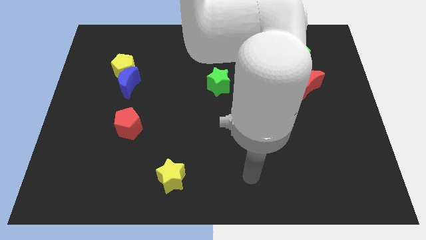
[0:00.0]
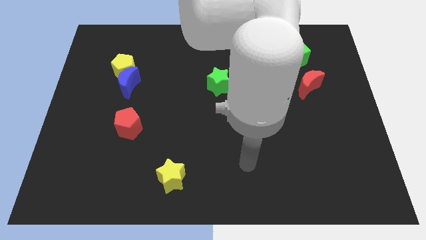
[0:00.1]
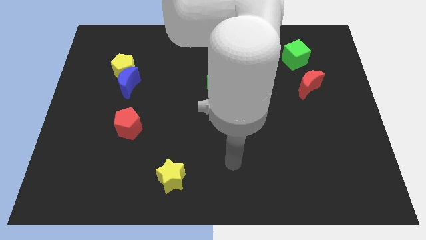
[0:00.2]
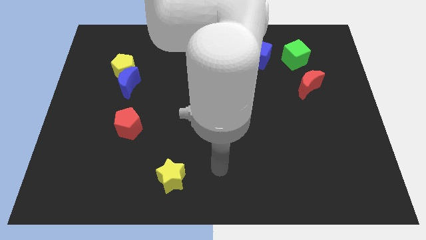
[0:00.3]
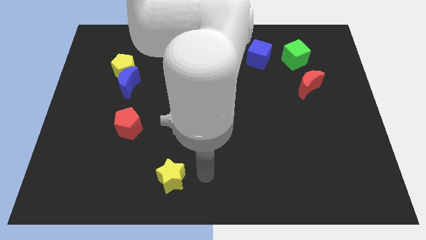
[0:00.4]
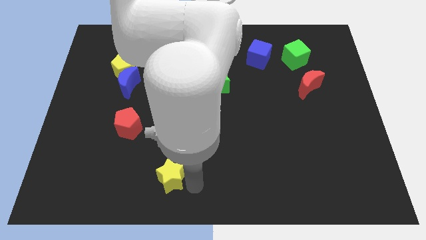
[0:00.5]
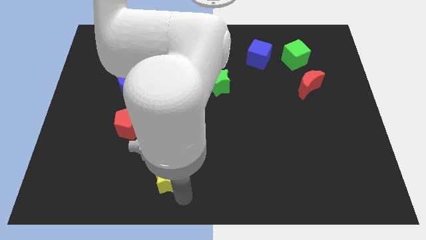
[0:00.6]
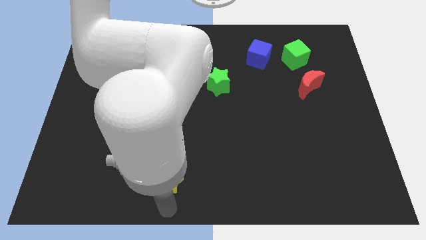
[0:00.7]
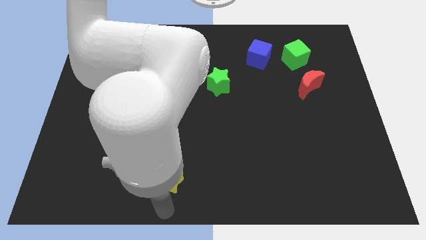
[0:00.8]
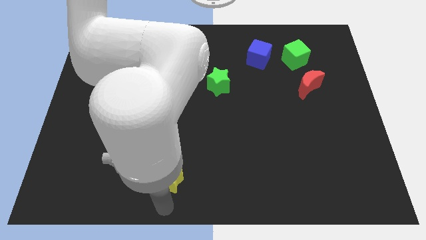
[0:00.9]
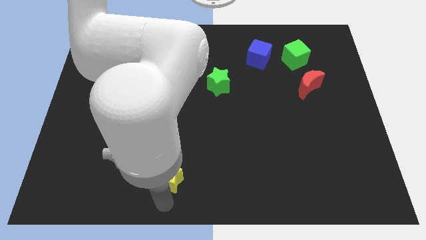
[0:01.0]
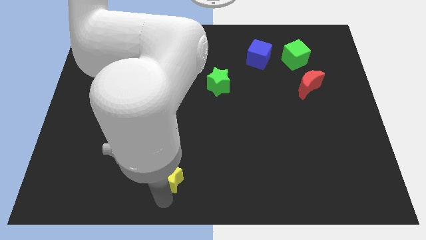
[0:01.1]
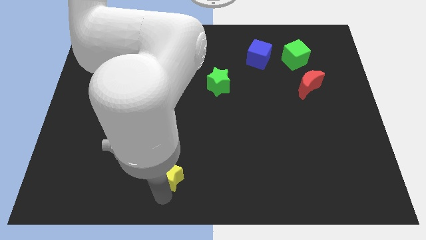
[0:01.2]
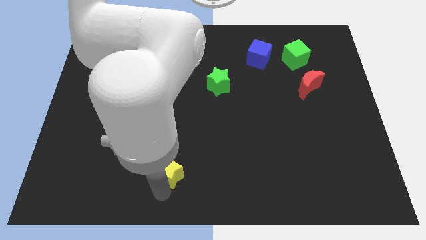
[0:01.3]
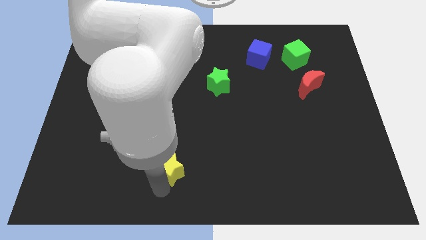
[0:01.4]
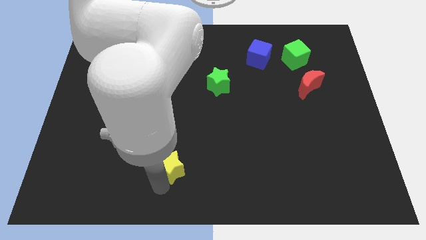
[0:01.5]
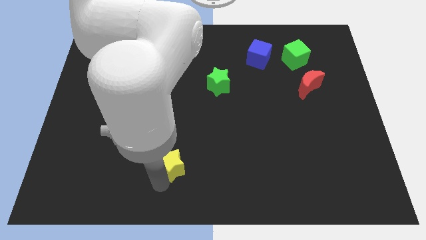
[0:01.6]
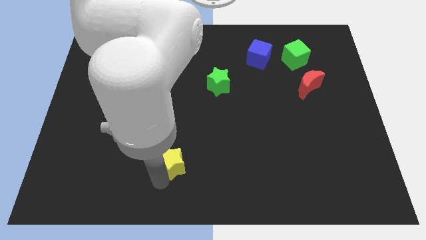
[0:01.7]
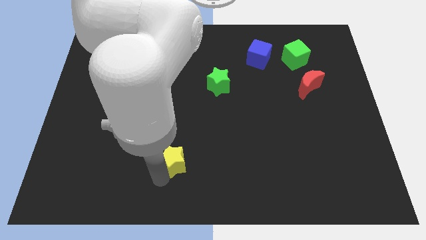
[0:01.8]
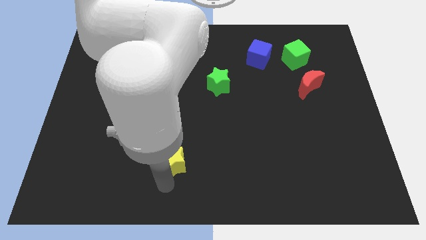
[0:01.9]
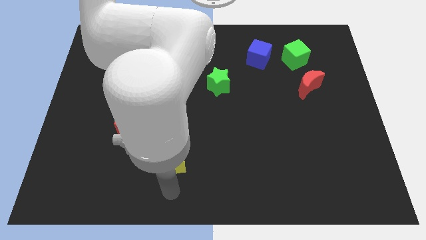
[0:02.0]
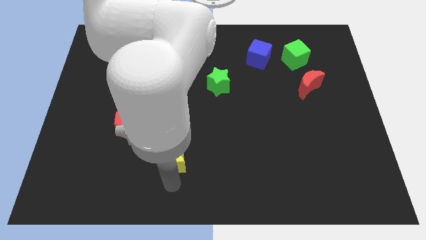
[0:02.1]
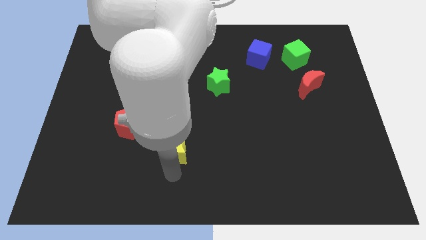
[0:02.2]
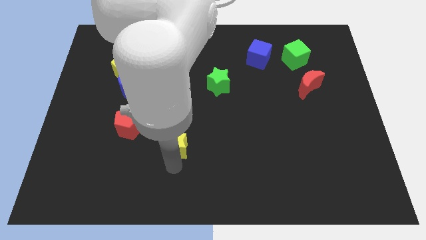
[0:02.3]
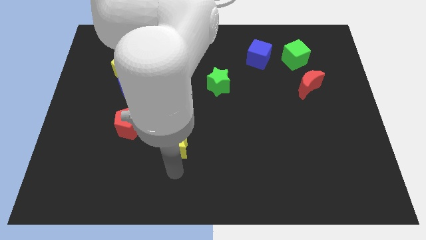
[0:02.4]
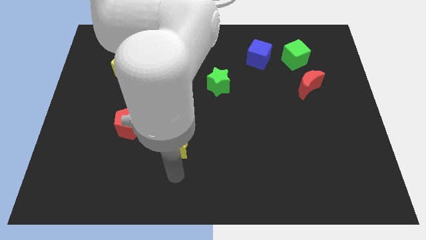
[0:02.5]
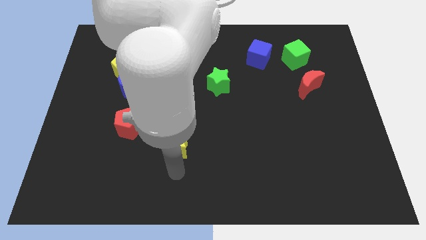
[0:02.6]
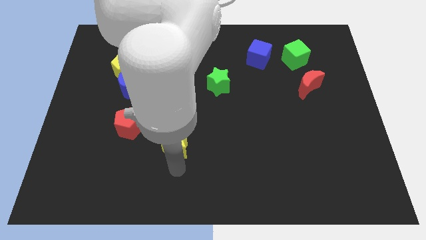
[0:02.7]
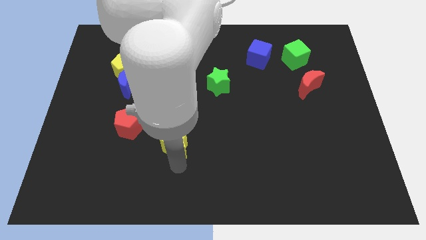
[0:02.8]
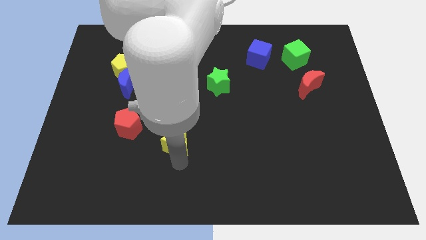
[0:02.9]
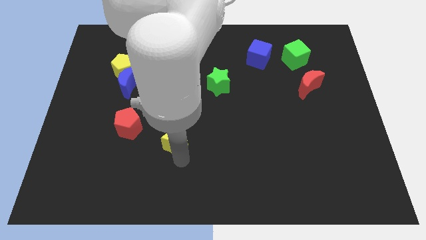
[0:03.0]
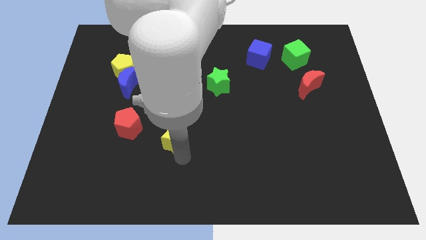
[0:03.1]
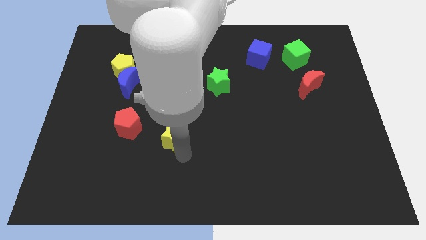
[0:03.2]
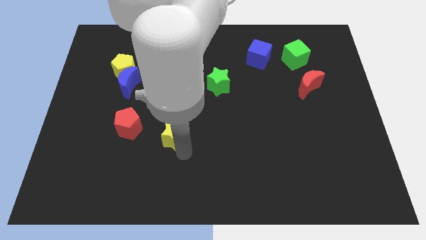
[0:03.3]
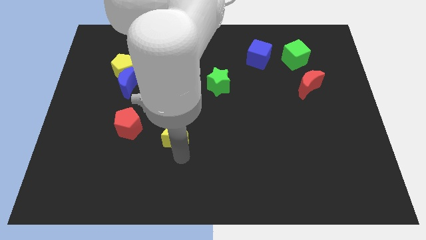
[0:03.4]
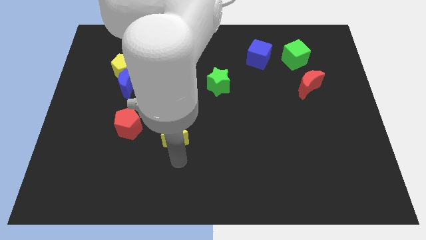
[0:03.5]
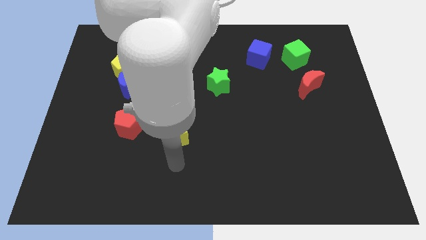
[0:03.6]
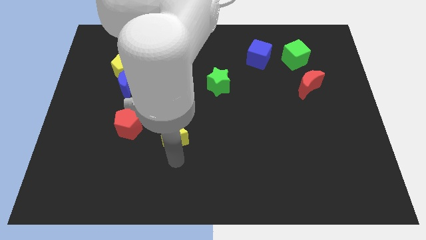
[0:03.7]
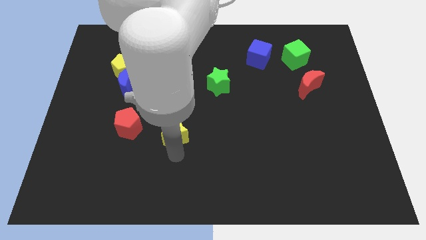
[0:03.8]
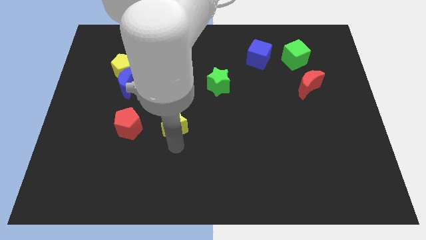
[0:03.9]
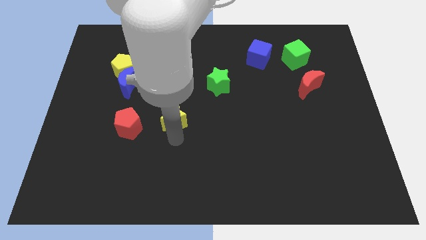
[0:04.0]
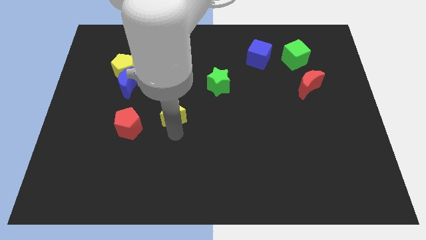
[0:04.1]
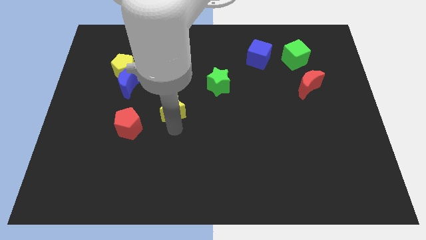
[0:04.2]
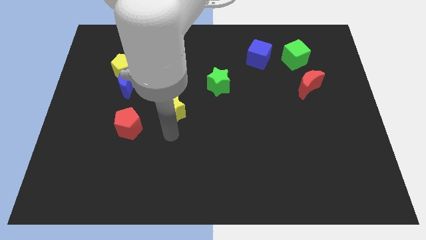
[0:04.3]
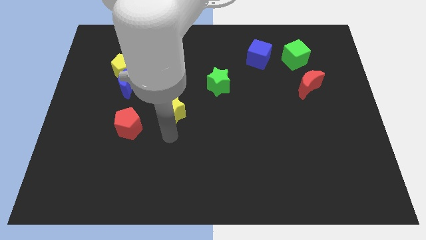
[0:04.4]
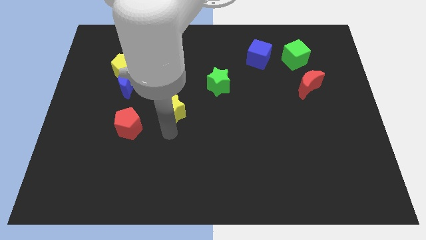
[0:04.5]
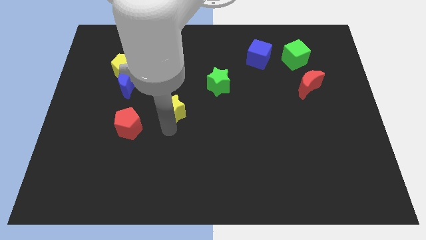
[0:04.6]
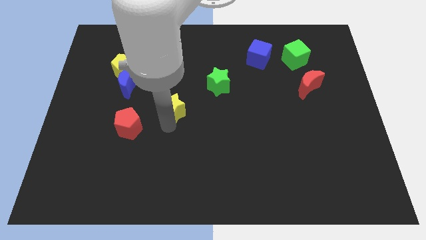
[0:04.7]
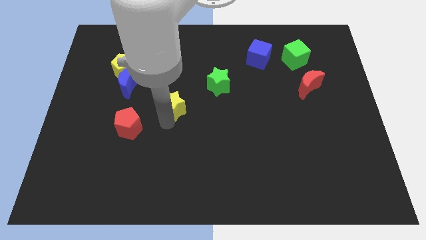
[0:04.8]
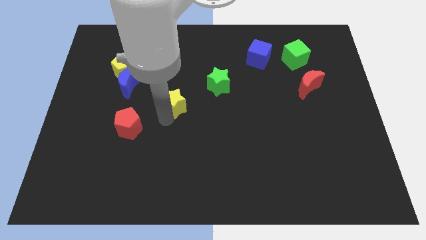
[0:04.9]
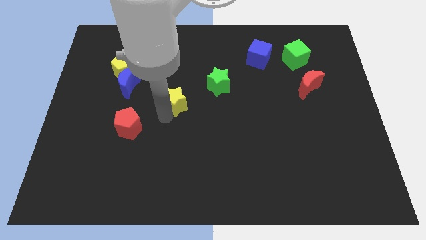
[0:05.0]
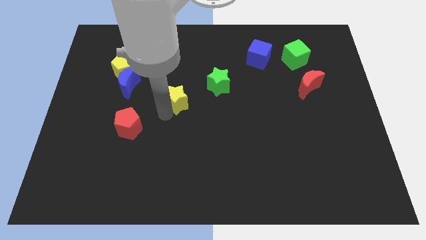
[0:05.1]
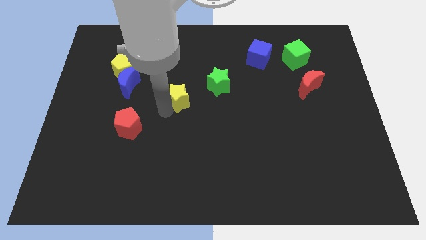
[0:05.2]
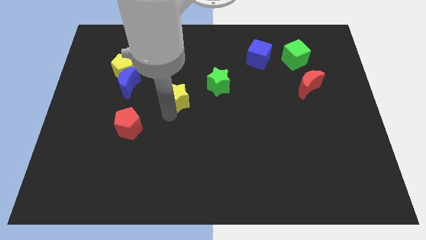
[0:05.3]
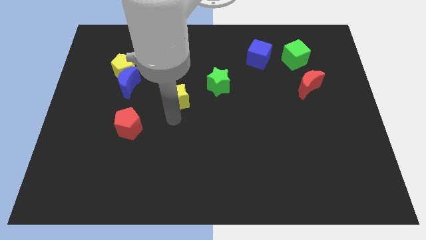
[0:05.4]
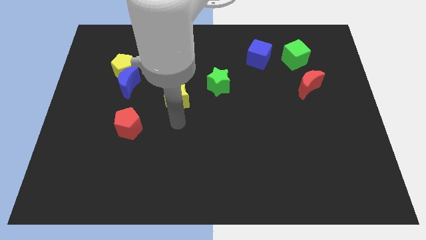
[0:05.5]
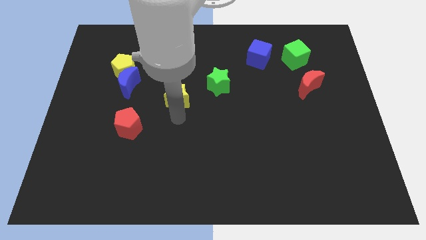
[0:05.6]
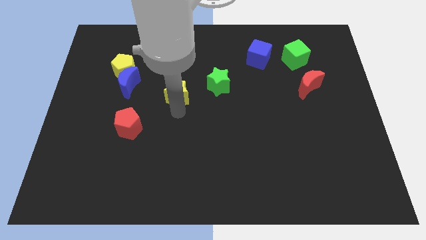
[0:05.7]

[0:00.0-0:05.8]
slide the yellow star just left of the green star

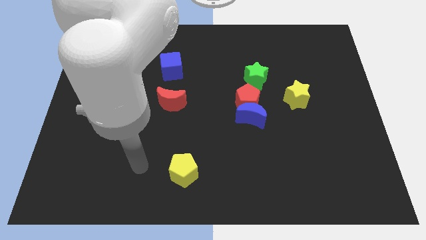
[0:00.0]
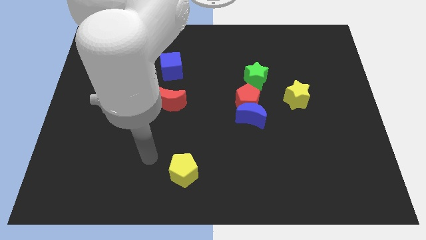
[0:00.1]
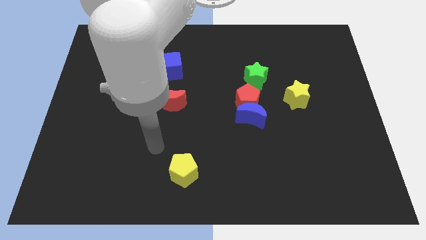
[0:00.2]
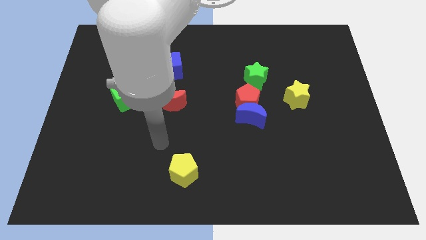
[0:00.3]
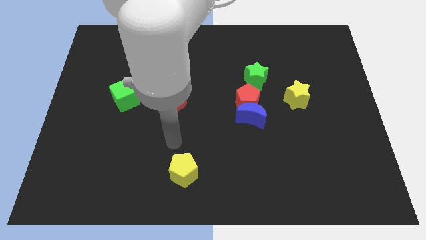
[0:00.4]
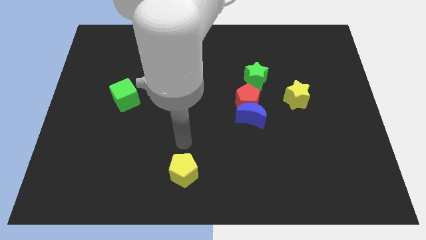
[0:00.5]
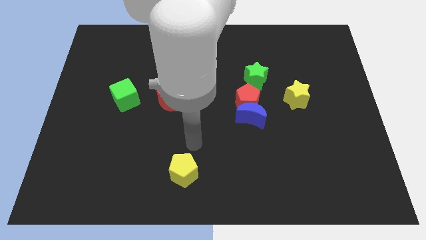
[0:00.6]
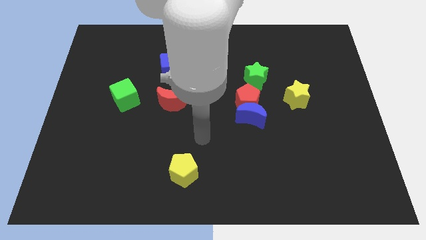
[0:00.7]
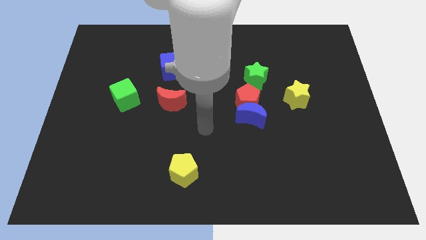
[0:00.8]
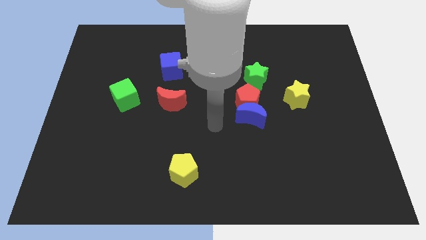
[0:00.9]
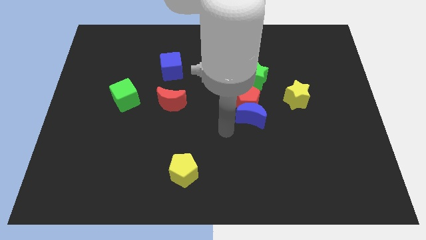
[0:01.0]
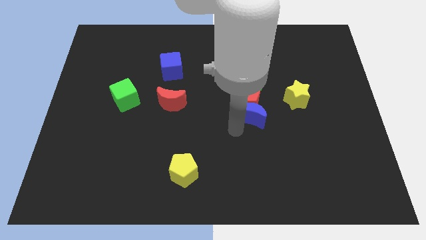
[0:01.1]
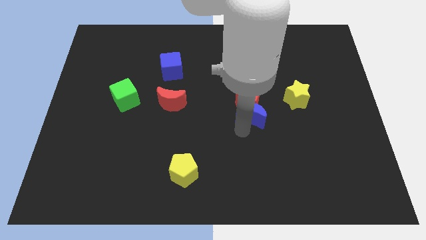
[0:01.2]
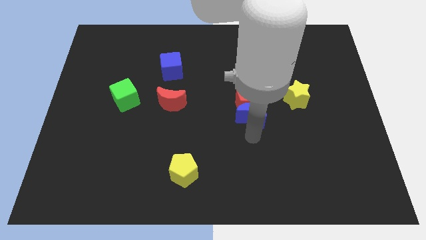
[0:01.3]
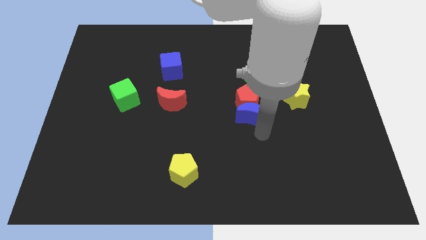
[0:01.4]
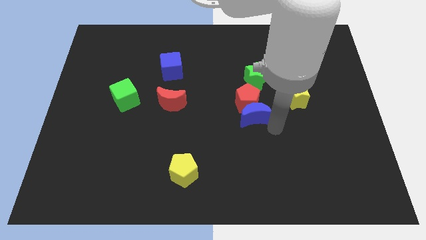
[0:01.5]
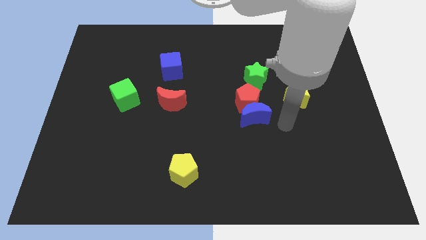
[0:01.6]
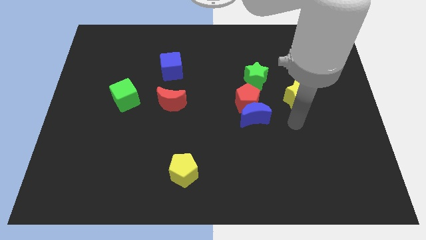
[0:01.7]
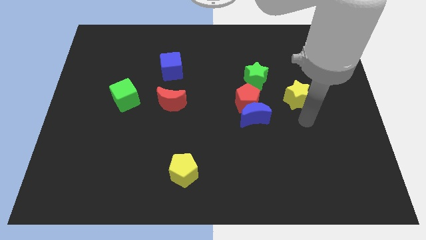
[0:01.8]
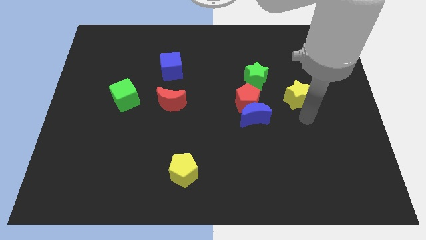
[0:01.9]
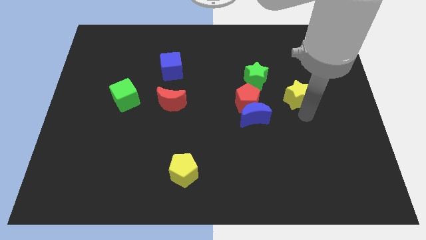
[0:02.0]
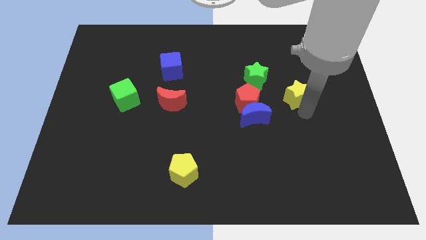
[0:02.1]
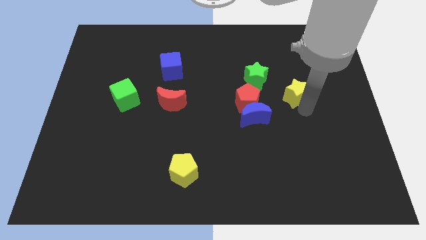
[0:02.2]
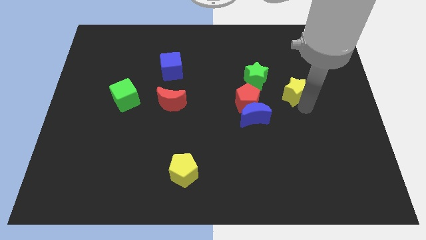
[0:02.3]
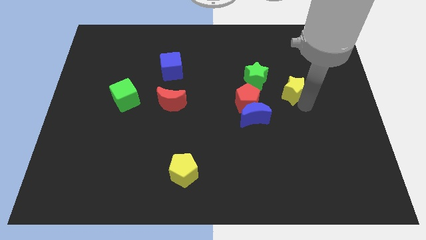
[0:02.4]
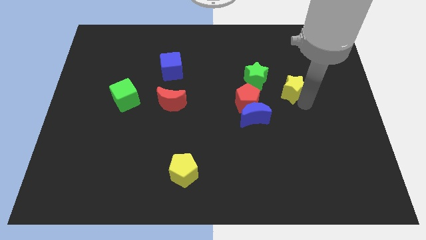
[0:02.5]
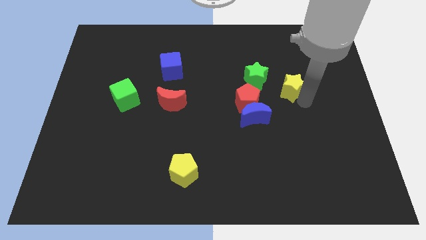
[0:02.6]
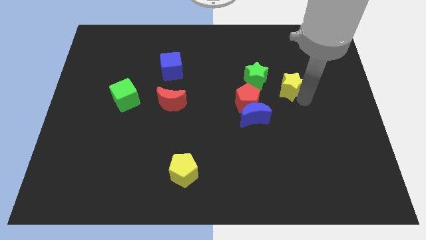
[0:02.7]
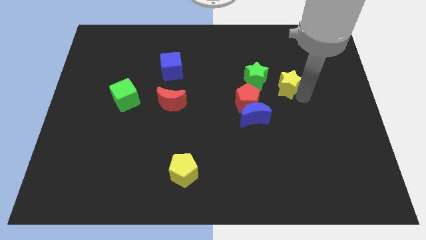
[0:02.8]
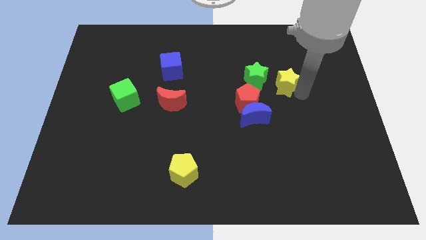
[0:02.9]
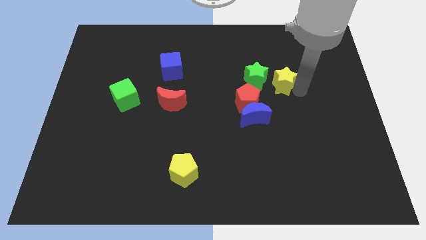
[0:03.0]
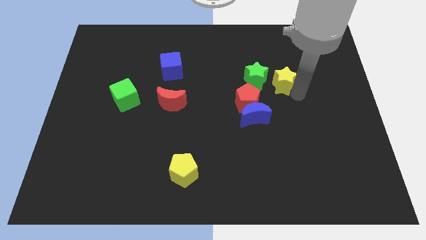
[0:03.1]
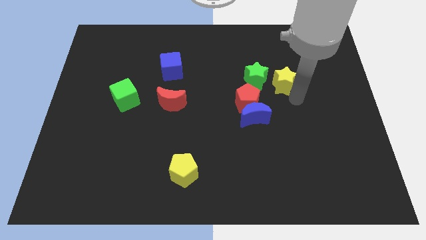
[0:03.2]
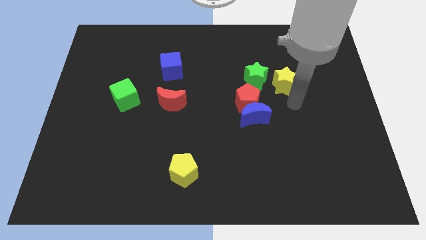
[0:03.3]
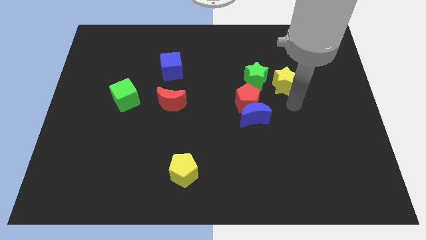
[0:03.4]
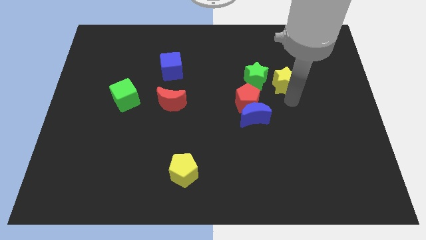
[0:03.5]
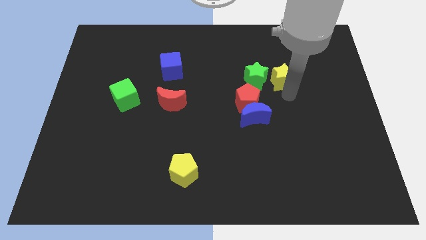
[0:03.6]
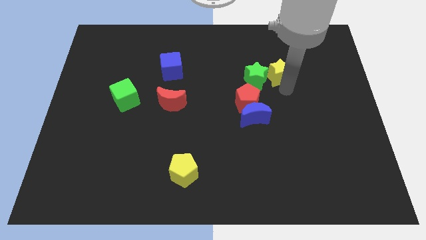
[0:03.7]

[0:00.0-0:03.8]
push the yellow star diagonally up and to the right of the green star
